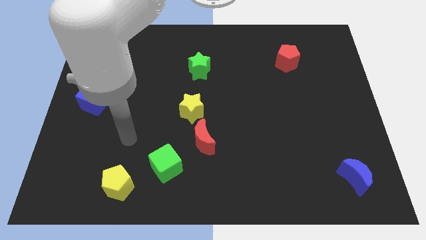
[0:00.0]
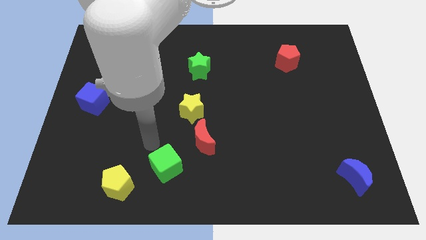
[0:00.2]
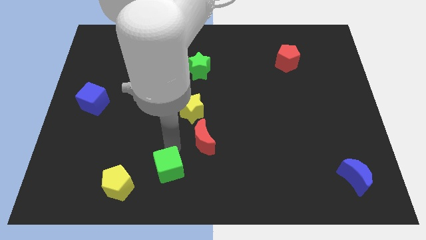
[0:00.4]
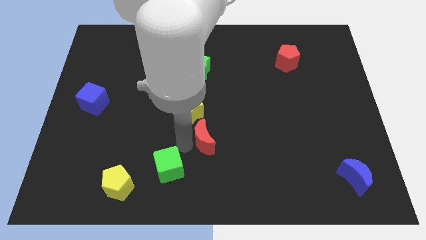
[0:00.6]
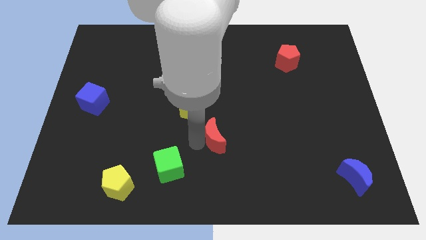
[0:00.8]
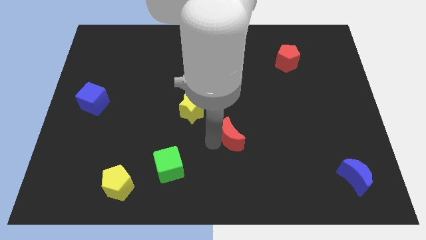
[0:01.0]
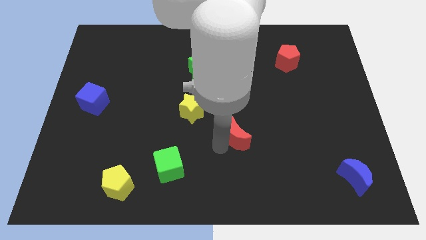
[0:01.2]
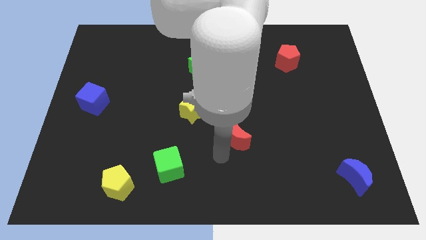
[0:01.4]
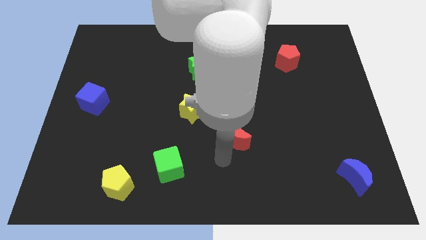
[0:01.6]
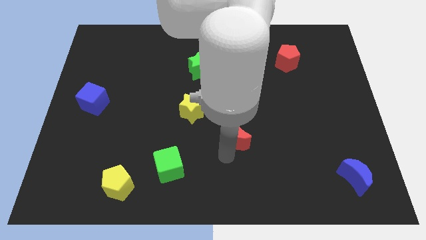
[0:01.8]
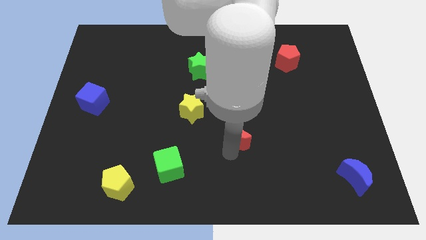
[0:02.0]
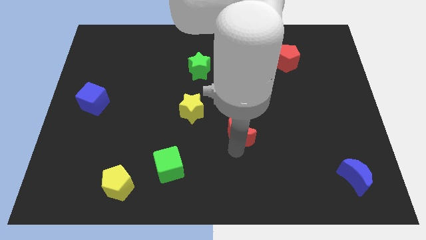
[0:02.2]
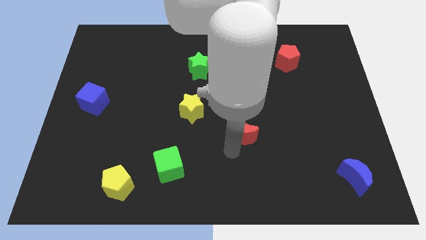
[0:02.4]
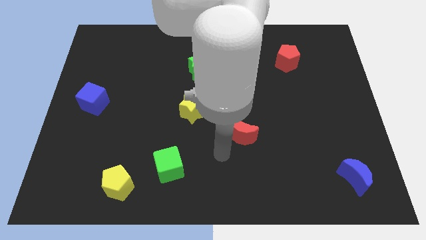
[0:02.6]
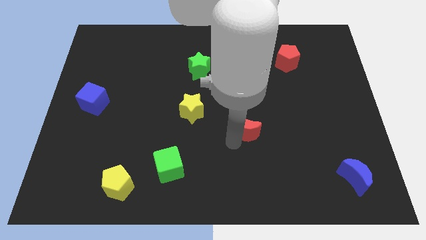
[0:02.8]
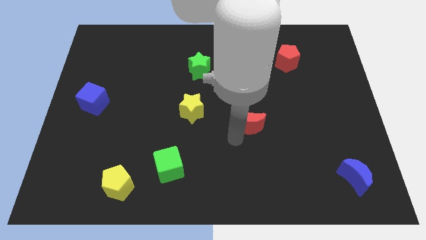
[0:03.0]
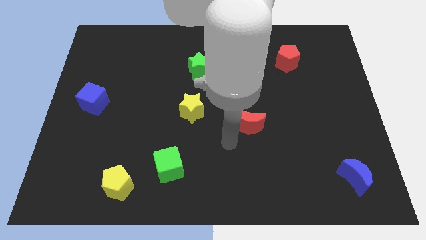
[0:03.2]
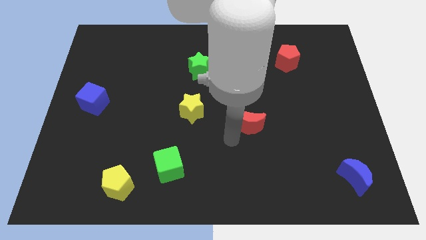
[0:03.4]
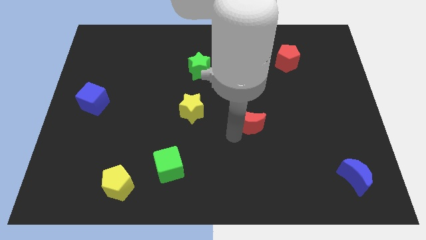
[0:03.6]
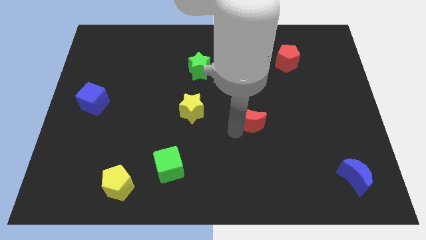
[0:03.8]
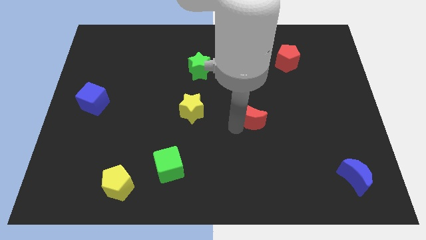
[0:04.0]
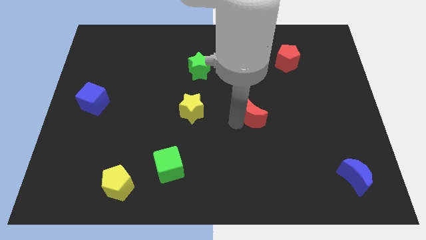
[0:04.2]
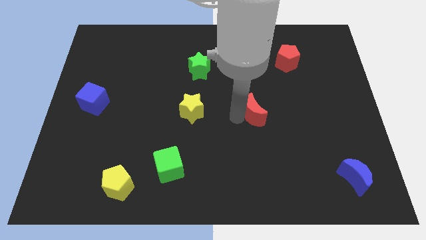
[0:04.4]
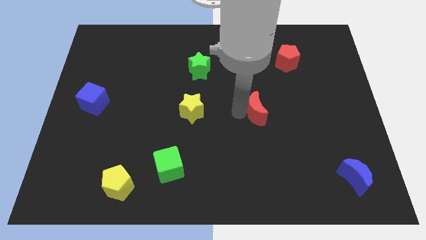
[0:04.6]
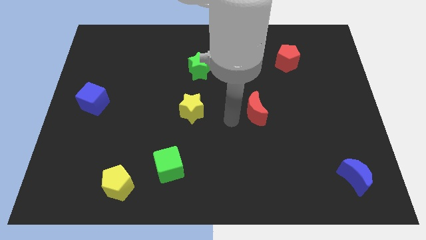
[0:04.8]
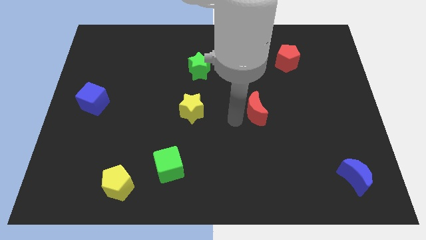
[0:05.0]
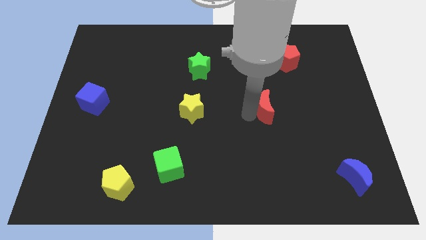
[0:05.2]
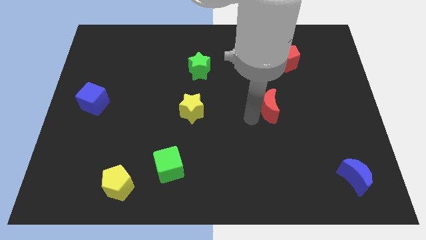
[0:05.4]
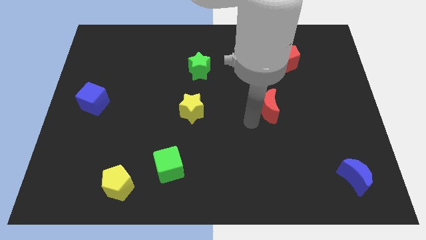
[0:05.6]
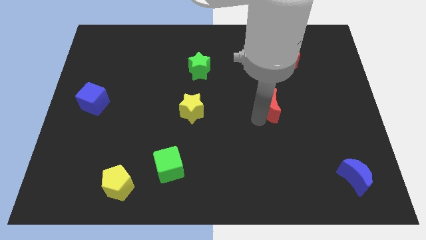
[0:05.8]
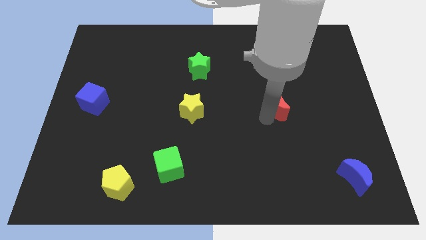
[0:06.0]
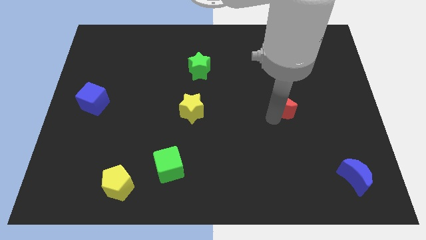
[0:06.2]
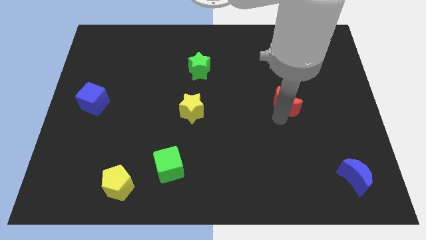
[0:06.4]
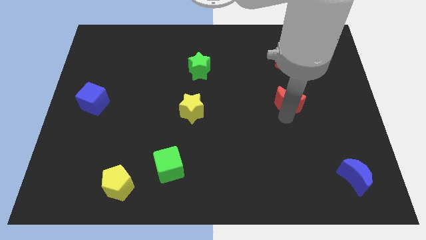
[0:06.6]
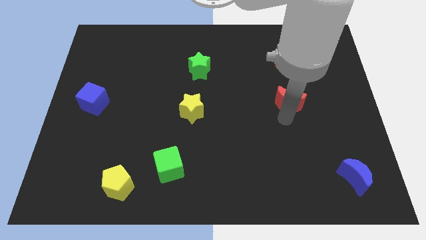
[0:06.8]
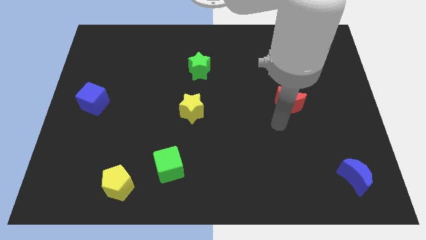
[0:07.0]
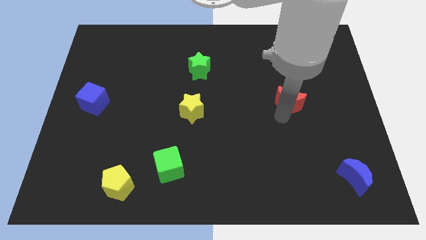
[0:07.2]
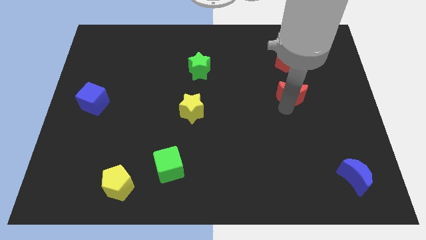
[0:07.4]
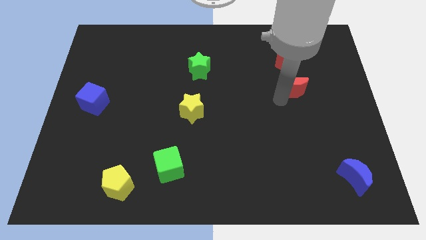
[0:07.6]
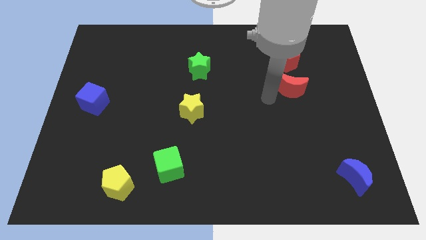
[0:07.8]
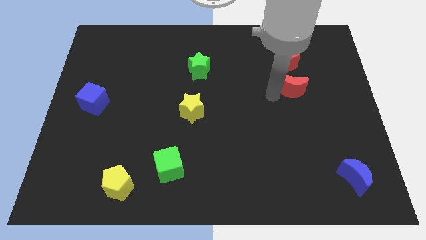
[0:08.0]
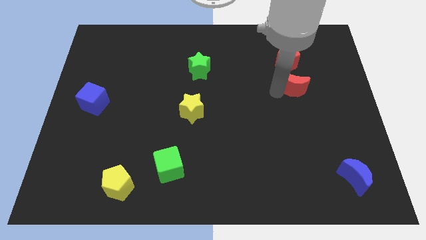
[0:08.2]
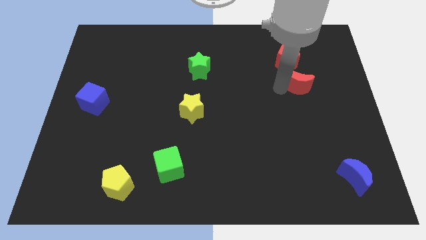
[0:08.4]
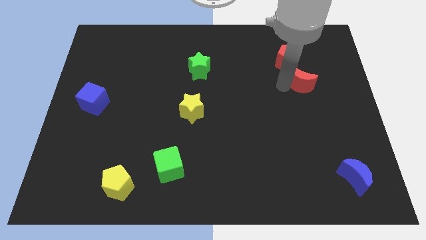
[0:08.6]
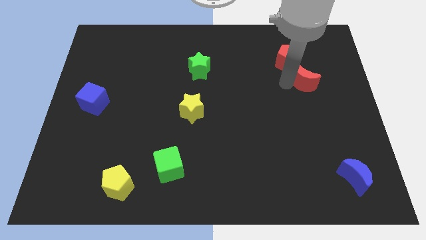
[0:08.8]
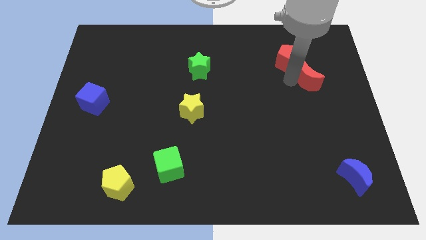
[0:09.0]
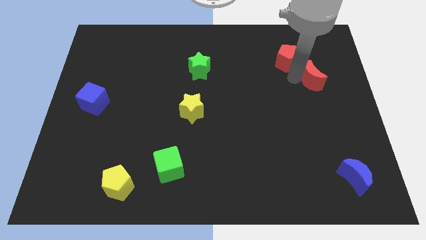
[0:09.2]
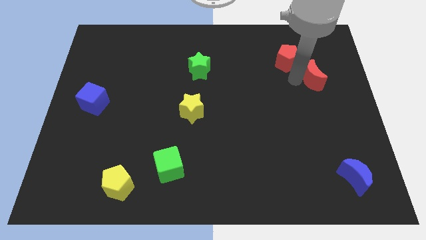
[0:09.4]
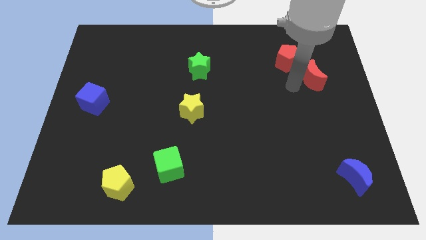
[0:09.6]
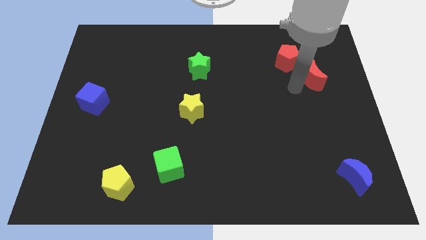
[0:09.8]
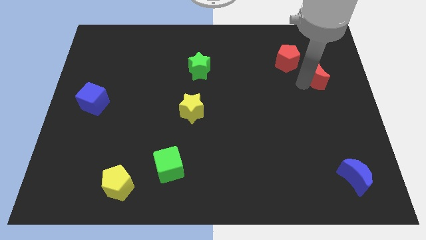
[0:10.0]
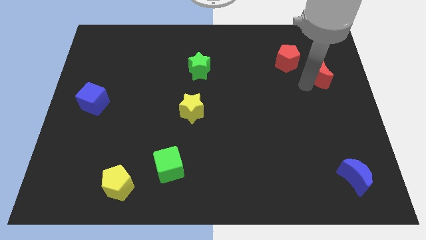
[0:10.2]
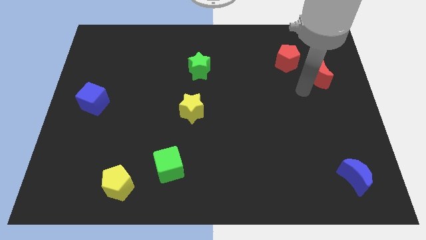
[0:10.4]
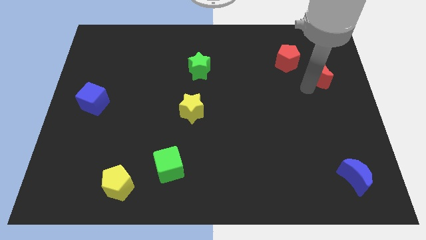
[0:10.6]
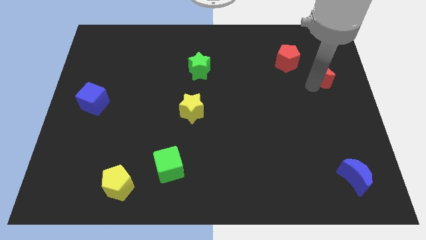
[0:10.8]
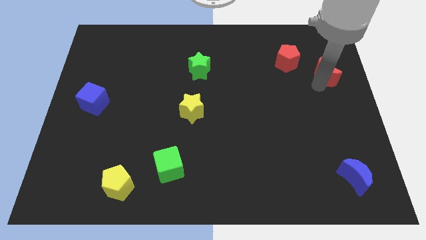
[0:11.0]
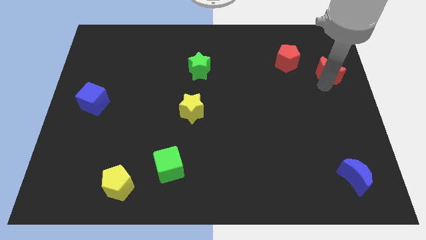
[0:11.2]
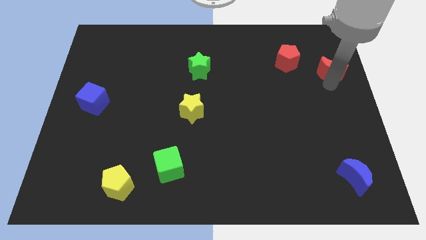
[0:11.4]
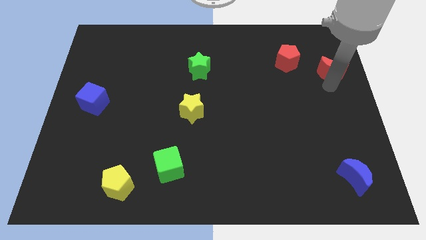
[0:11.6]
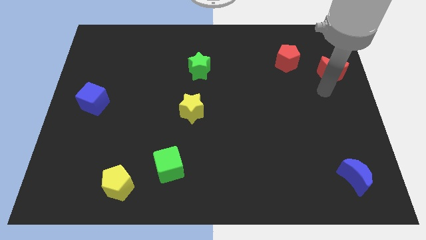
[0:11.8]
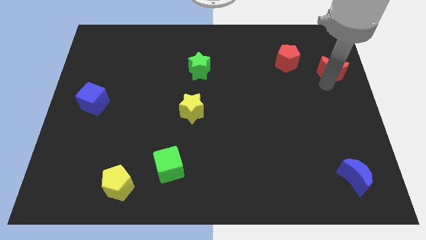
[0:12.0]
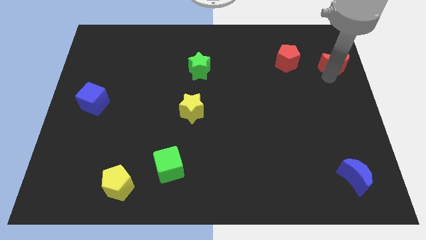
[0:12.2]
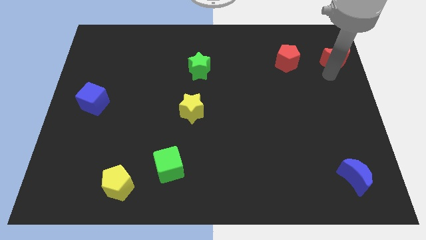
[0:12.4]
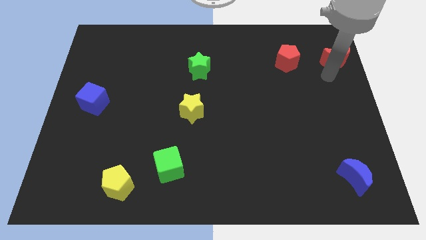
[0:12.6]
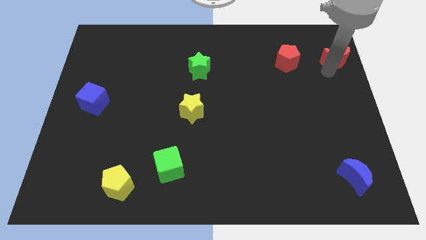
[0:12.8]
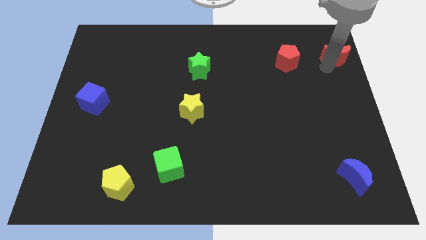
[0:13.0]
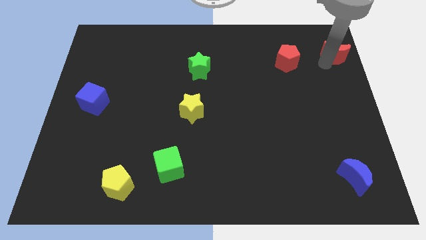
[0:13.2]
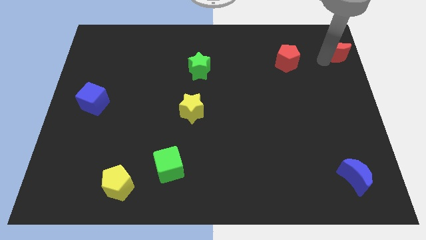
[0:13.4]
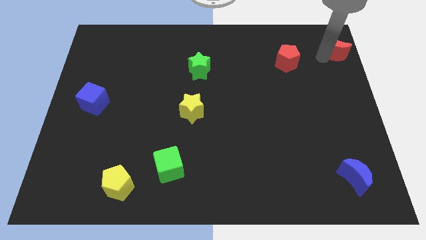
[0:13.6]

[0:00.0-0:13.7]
put the red moon to the upper right corner
